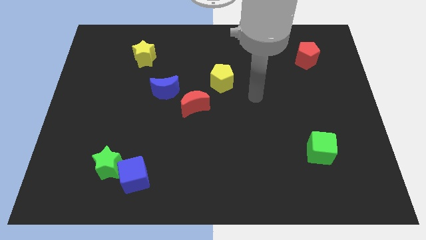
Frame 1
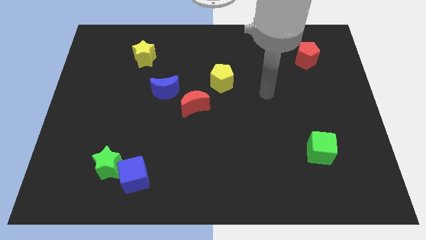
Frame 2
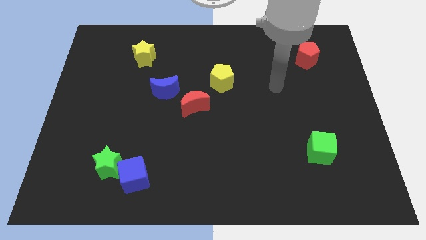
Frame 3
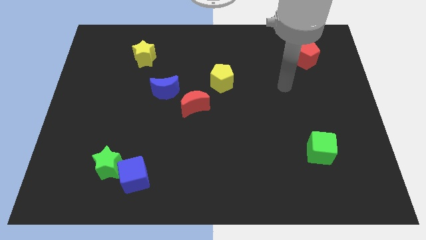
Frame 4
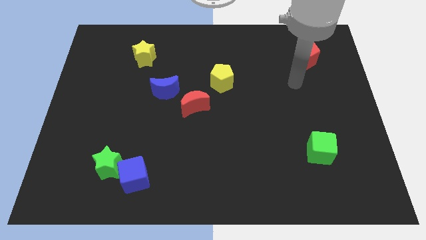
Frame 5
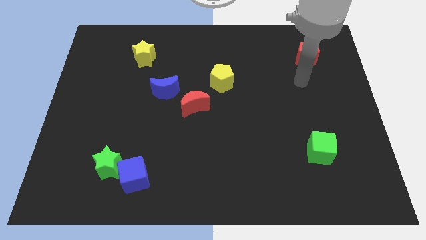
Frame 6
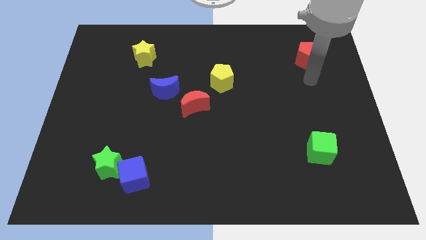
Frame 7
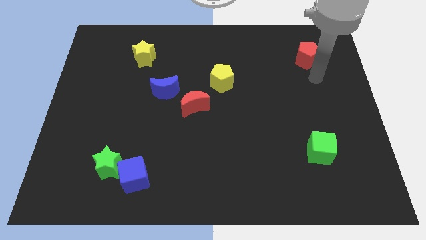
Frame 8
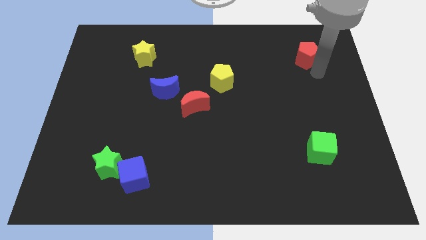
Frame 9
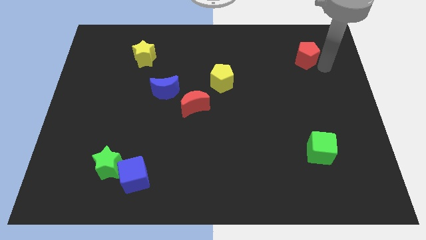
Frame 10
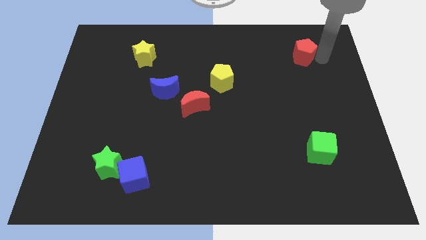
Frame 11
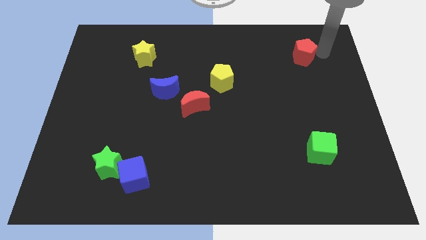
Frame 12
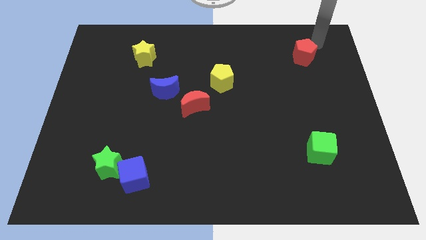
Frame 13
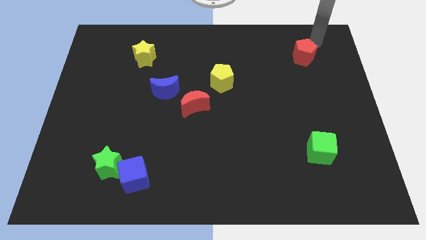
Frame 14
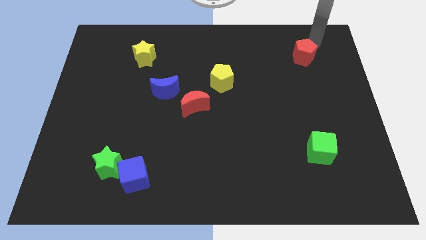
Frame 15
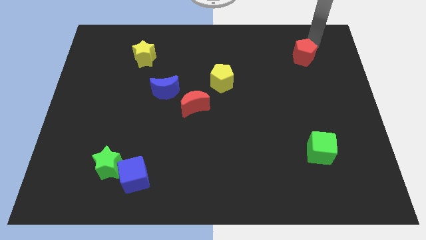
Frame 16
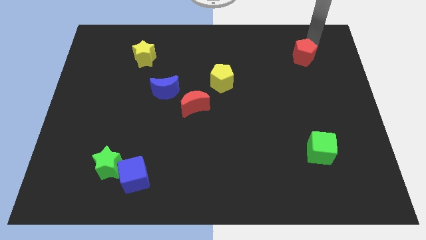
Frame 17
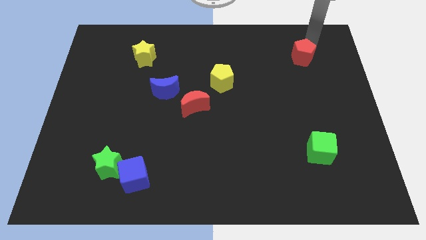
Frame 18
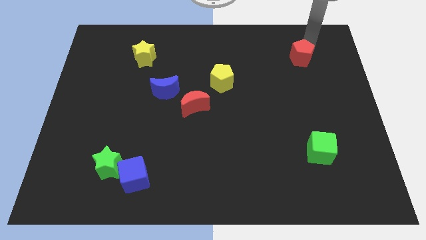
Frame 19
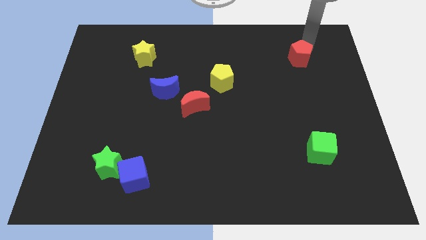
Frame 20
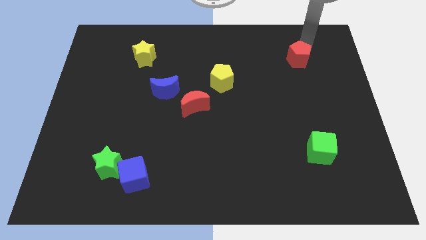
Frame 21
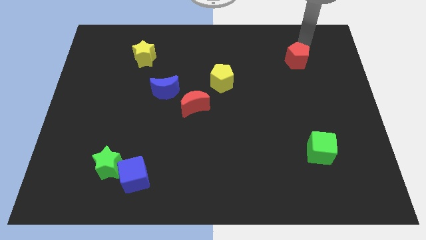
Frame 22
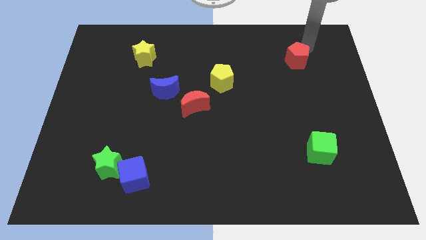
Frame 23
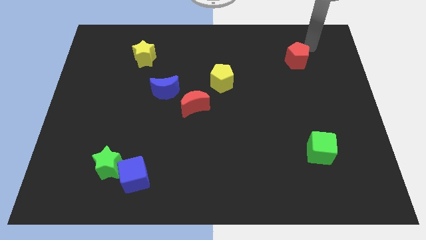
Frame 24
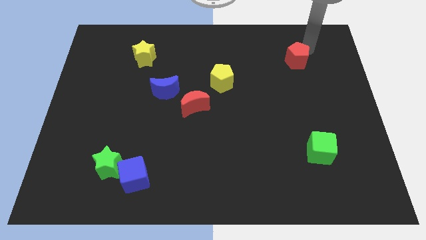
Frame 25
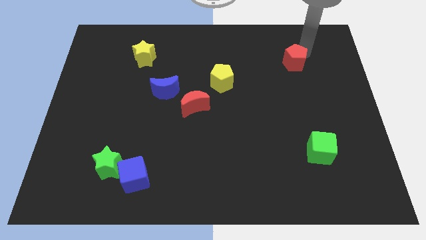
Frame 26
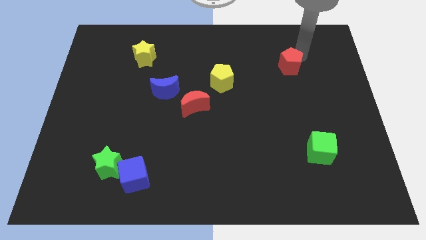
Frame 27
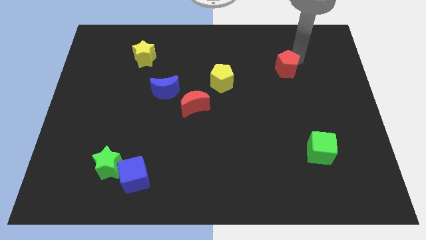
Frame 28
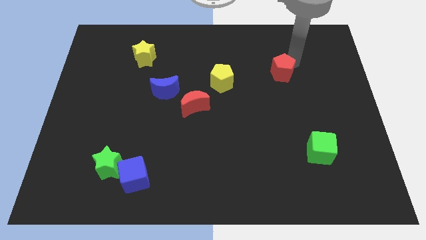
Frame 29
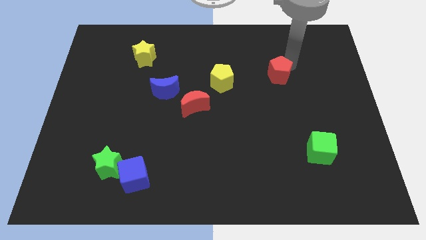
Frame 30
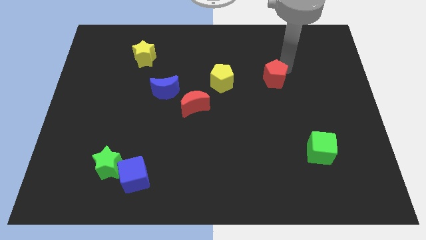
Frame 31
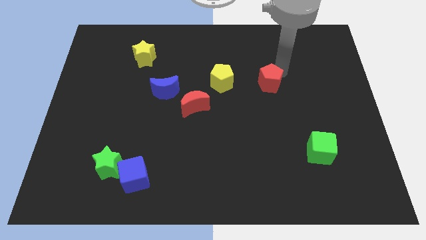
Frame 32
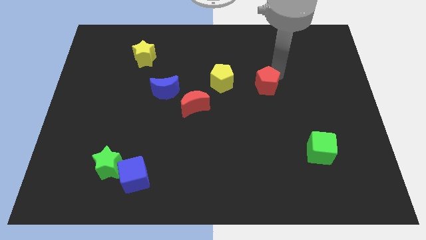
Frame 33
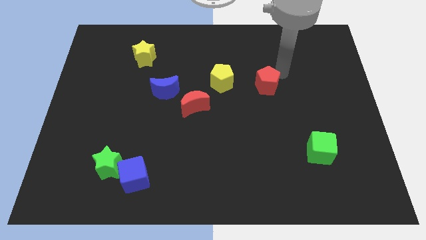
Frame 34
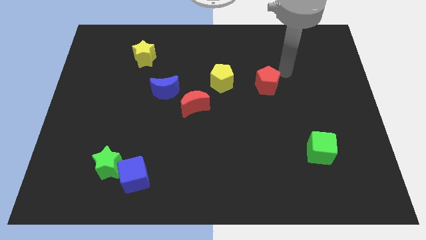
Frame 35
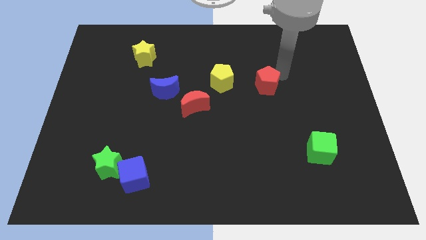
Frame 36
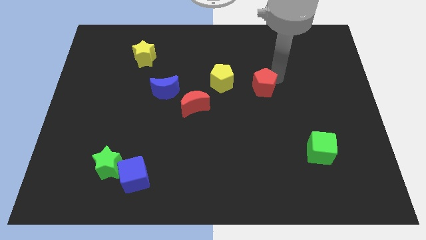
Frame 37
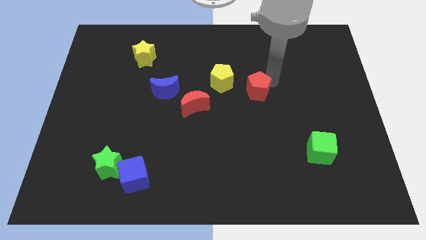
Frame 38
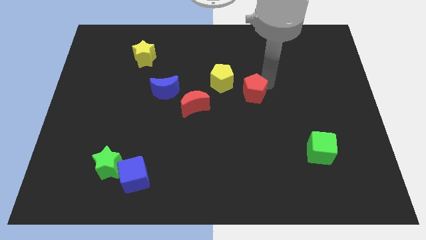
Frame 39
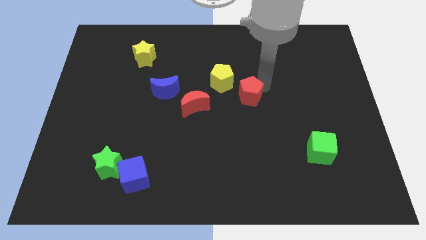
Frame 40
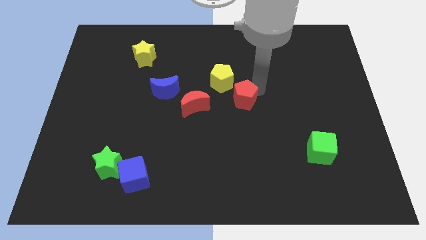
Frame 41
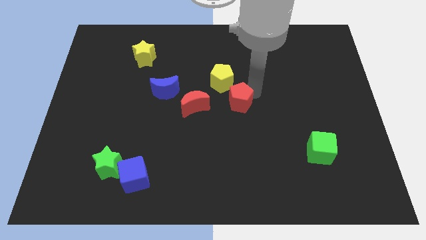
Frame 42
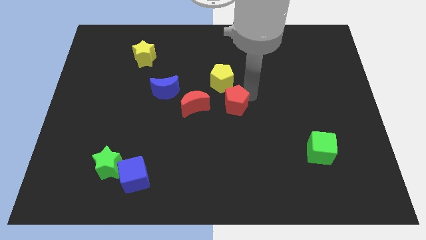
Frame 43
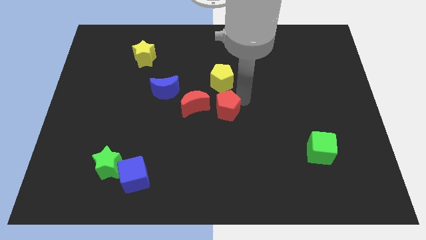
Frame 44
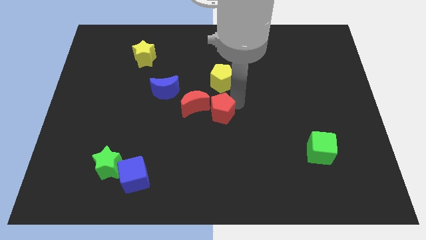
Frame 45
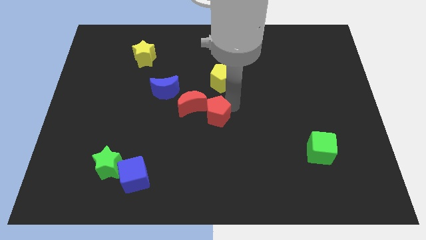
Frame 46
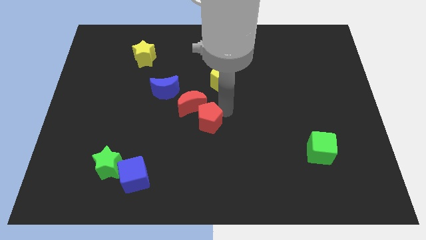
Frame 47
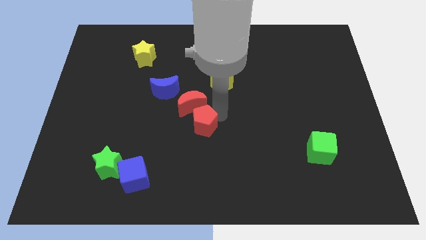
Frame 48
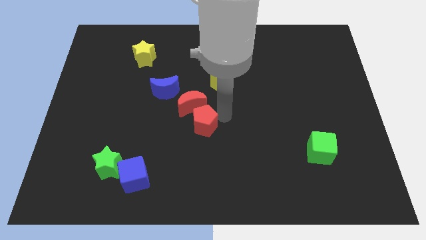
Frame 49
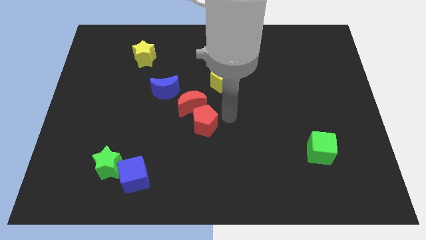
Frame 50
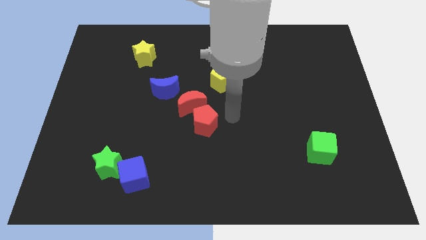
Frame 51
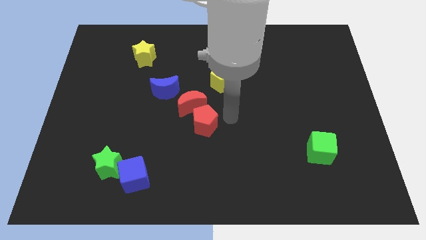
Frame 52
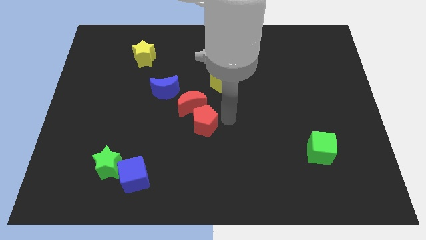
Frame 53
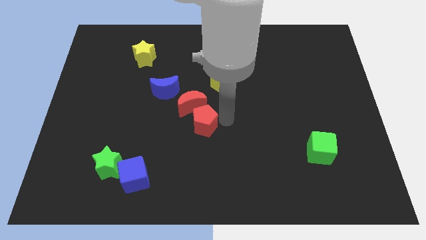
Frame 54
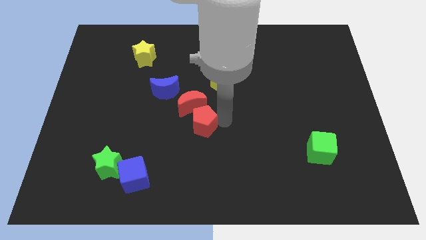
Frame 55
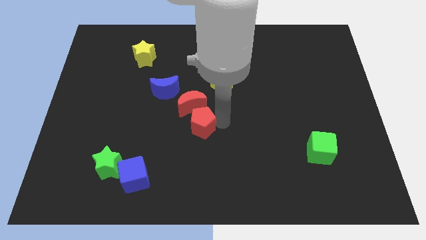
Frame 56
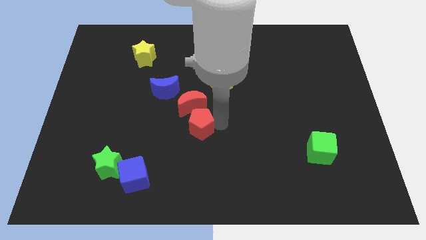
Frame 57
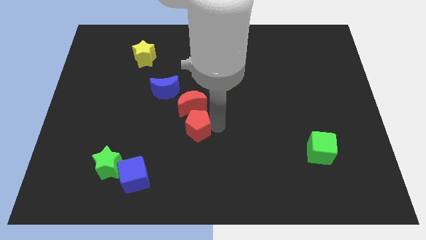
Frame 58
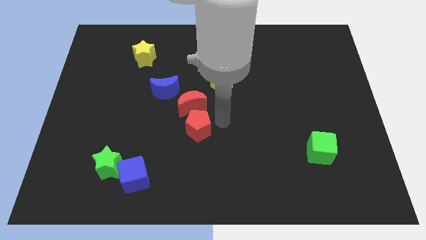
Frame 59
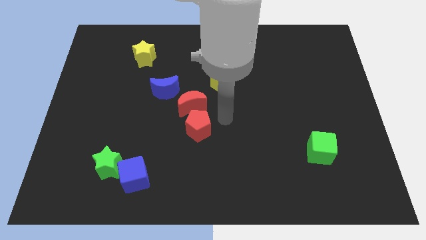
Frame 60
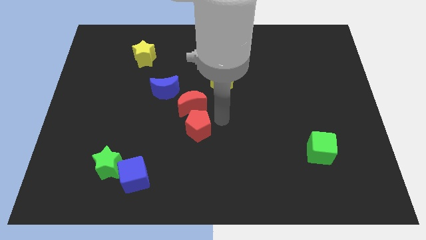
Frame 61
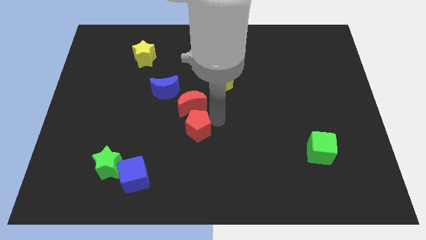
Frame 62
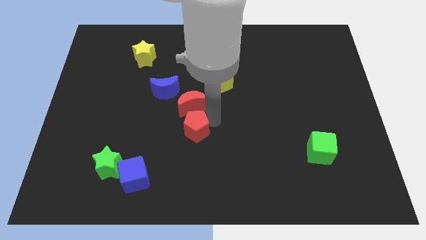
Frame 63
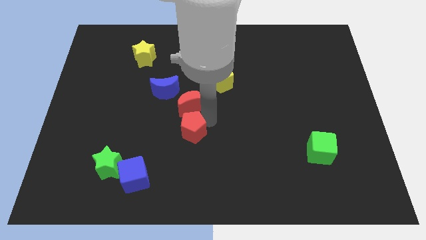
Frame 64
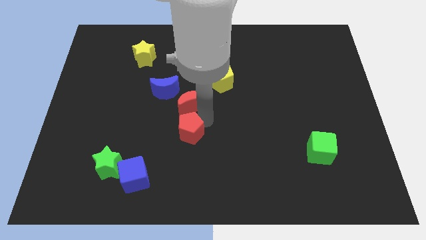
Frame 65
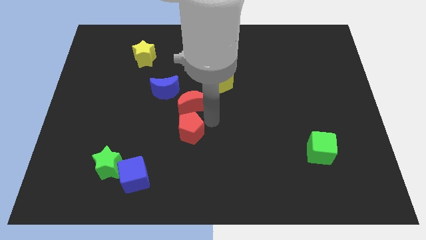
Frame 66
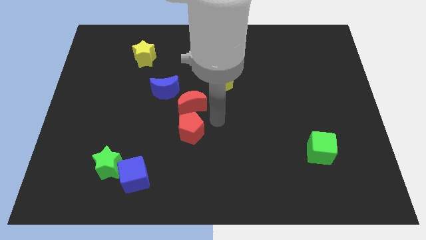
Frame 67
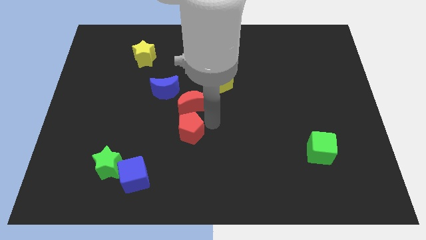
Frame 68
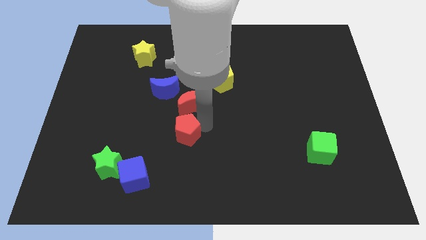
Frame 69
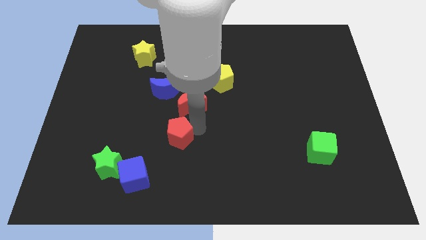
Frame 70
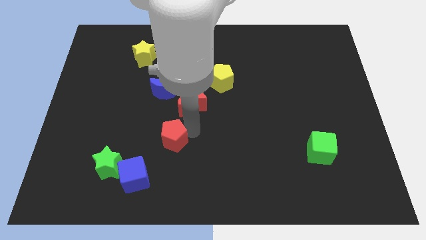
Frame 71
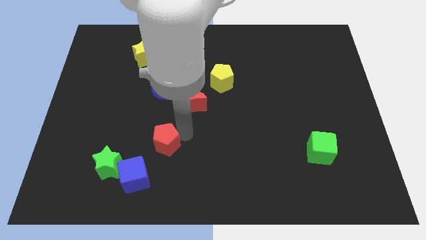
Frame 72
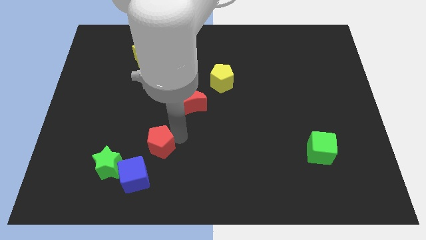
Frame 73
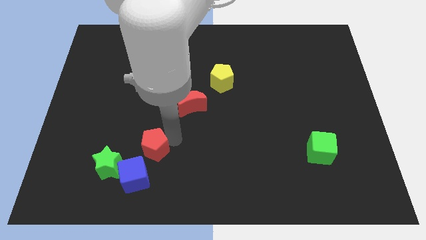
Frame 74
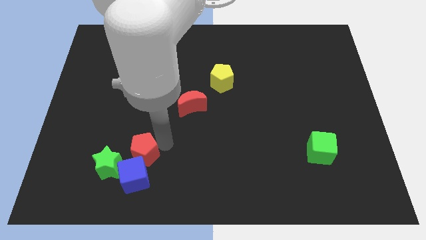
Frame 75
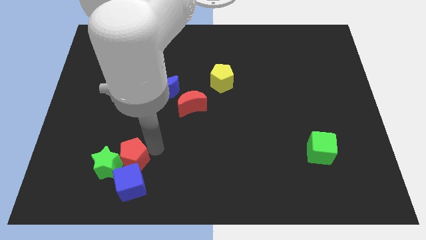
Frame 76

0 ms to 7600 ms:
slide the red pentagon next to the green star

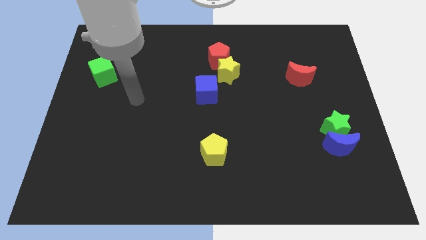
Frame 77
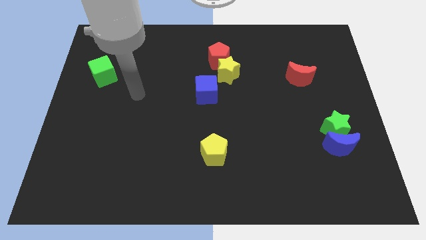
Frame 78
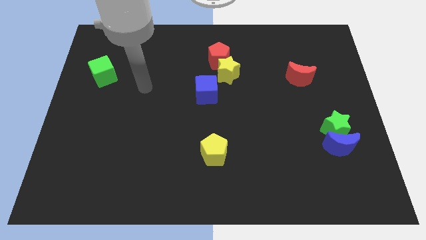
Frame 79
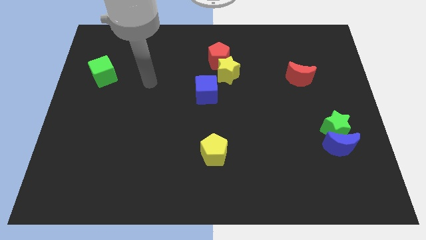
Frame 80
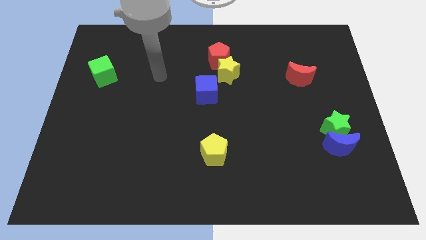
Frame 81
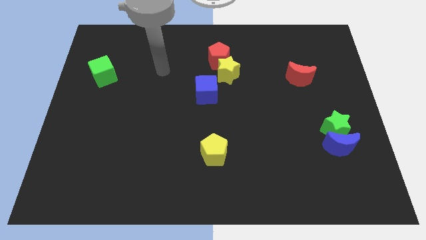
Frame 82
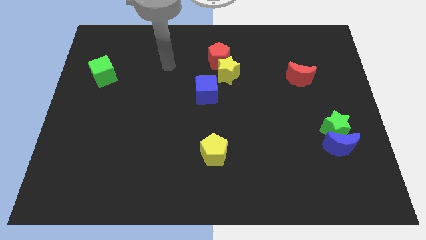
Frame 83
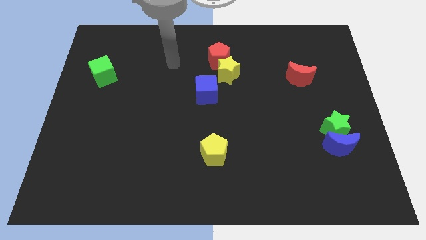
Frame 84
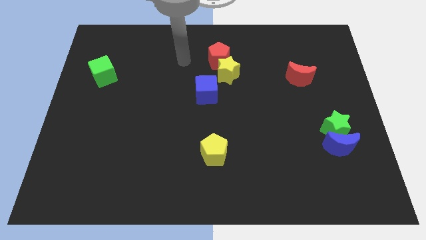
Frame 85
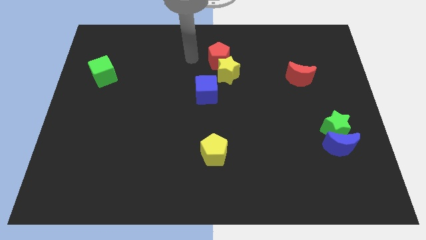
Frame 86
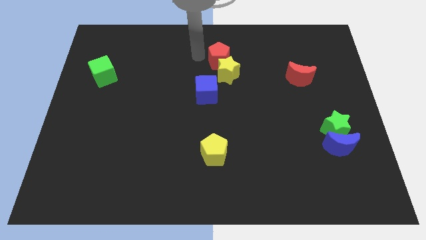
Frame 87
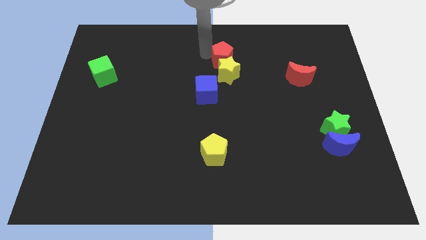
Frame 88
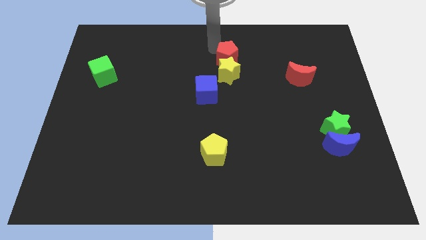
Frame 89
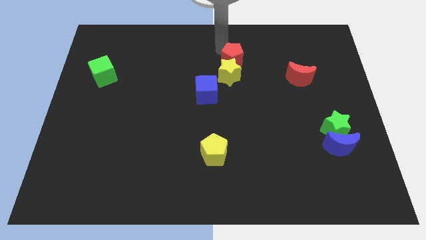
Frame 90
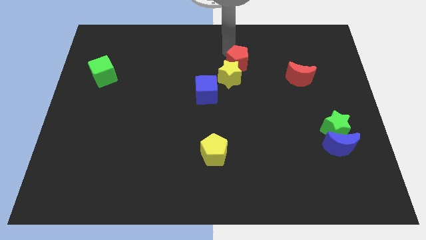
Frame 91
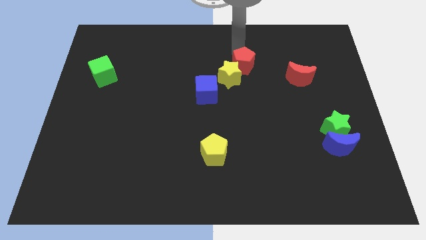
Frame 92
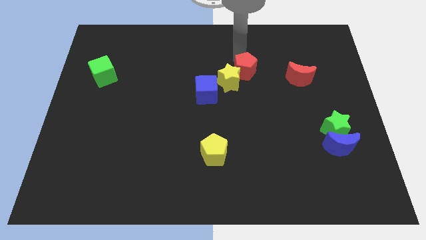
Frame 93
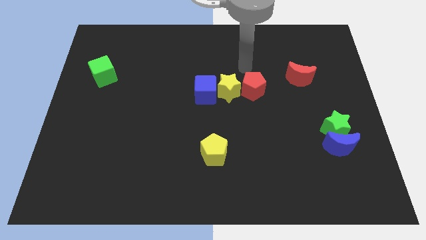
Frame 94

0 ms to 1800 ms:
put the yellow star to the blue cube
